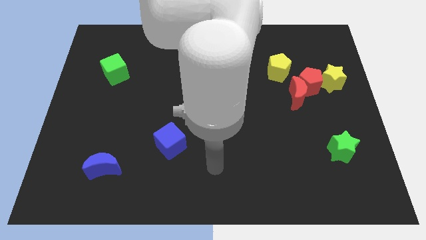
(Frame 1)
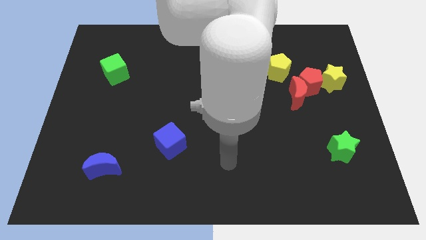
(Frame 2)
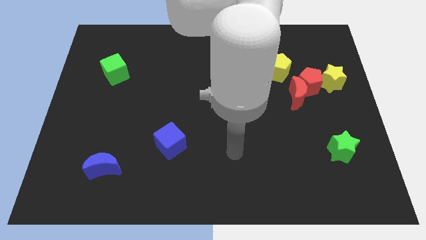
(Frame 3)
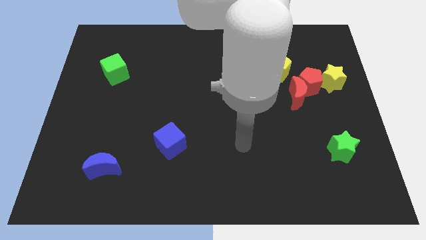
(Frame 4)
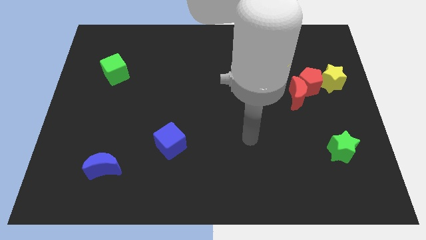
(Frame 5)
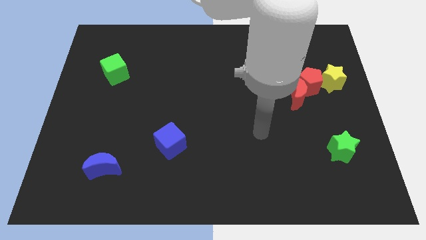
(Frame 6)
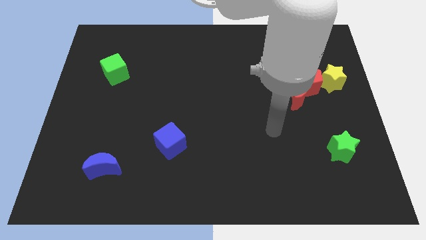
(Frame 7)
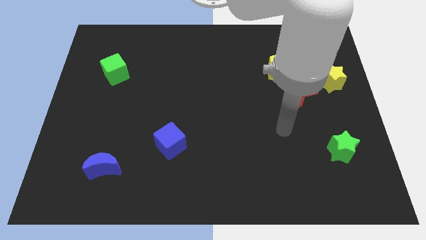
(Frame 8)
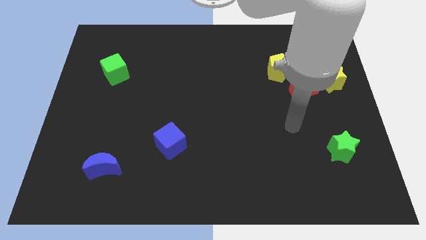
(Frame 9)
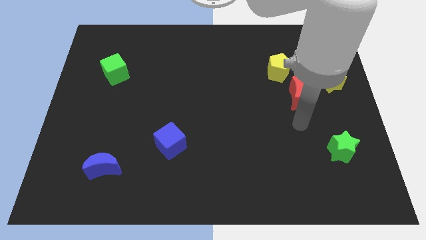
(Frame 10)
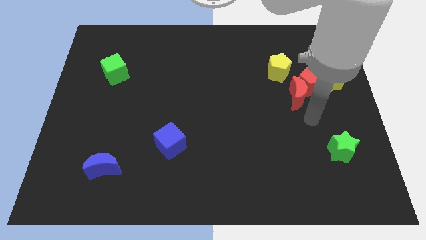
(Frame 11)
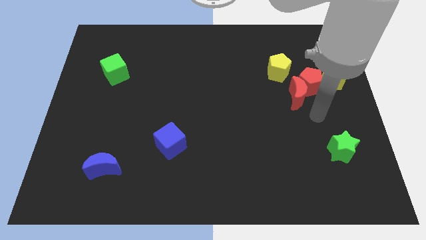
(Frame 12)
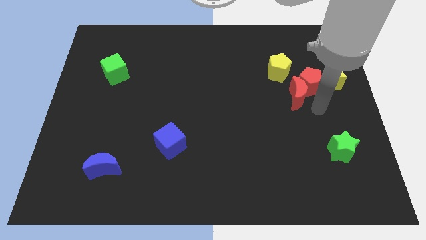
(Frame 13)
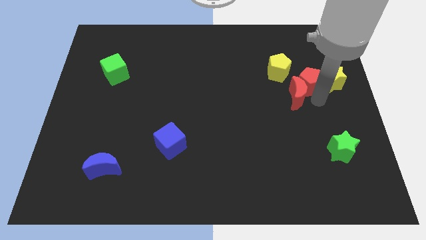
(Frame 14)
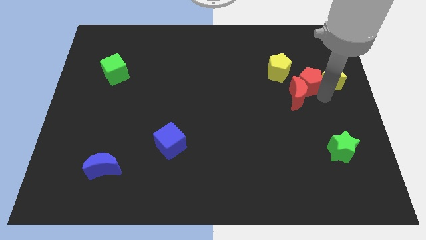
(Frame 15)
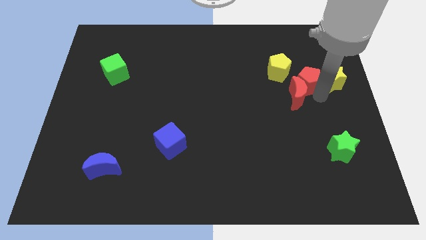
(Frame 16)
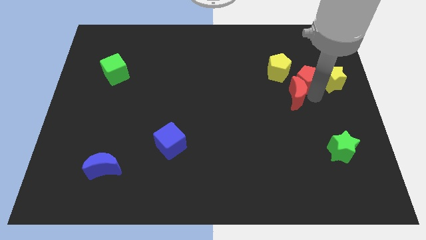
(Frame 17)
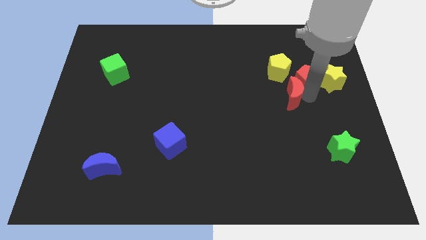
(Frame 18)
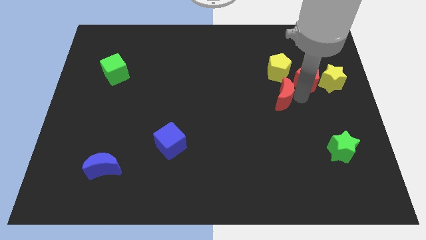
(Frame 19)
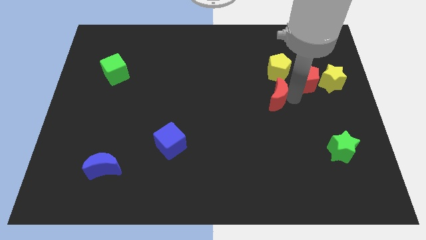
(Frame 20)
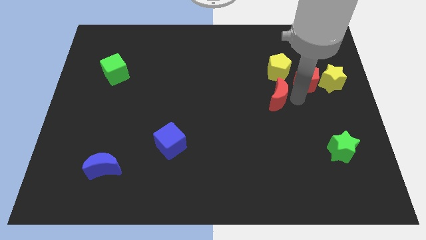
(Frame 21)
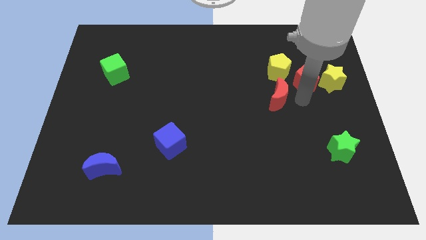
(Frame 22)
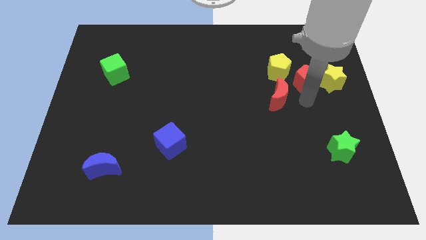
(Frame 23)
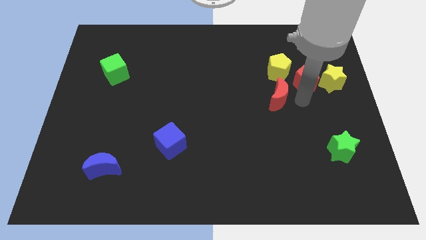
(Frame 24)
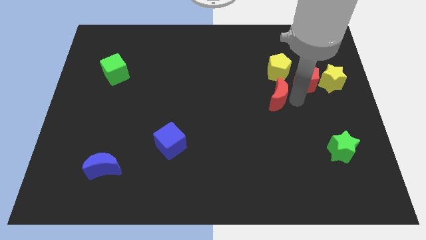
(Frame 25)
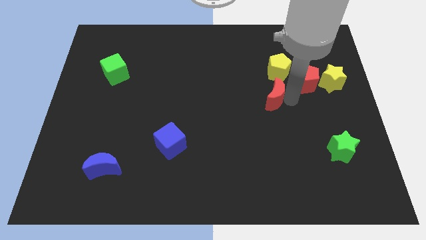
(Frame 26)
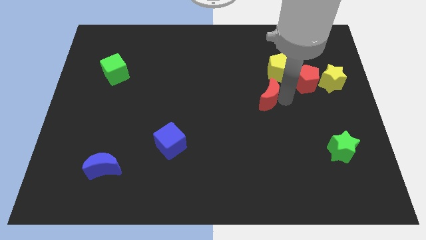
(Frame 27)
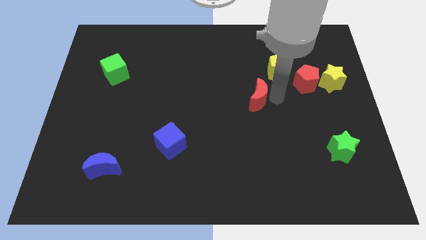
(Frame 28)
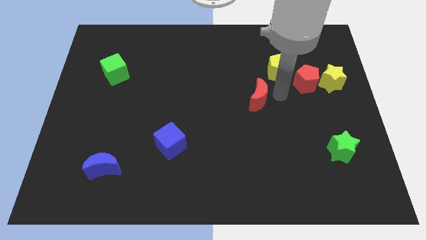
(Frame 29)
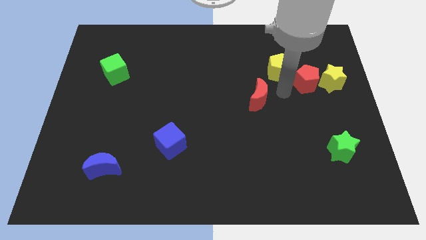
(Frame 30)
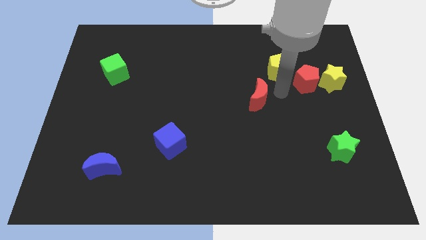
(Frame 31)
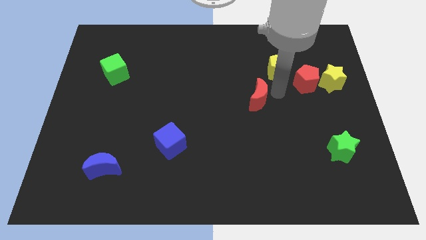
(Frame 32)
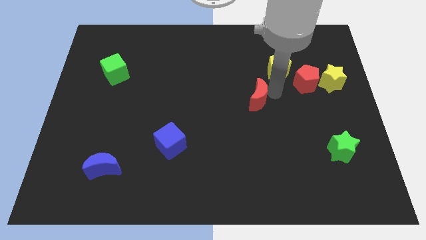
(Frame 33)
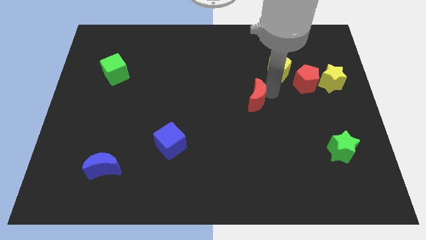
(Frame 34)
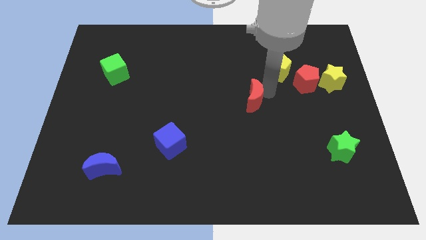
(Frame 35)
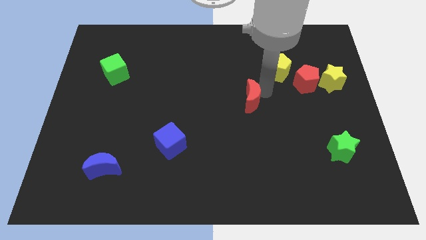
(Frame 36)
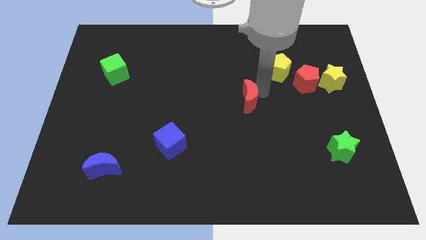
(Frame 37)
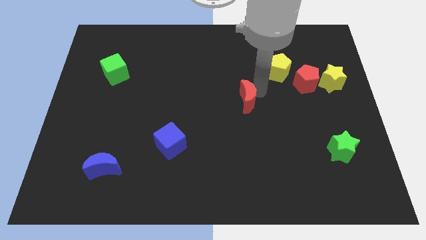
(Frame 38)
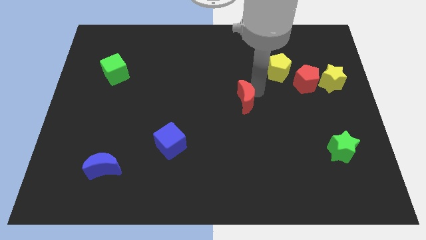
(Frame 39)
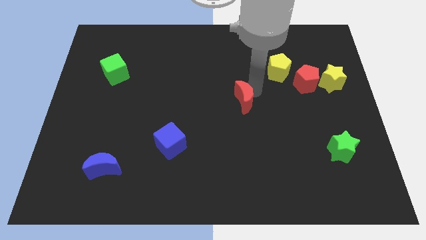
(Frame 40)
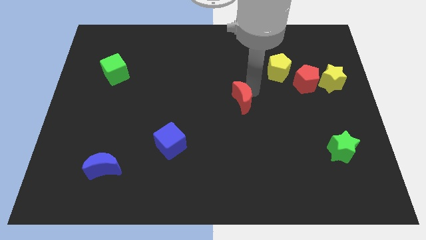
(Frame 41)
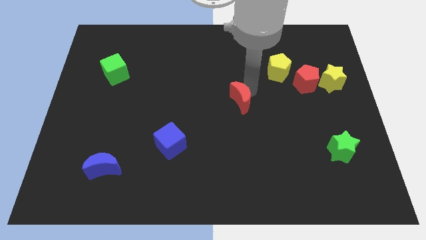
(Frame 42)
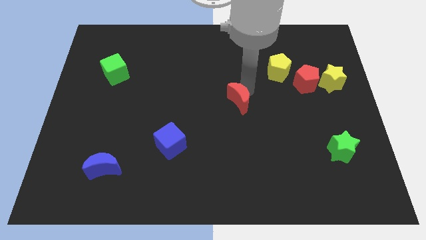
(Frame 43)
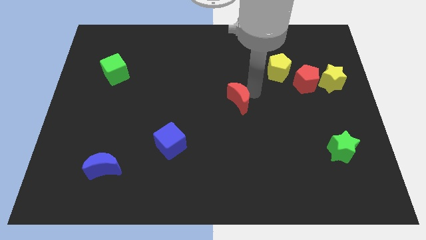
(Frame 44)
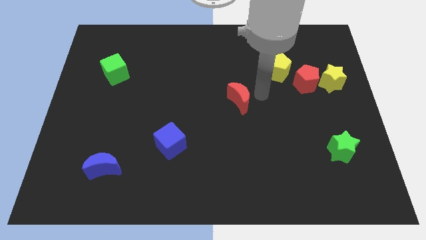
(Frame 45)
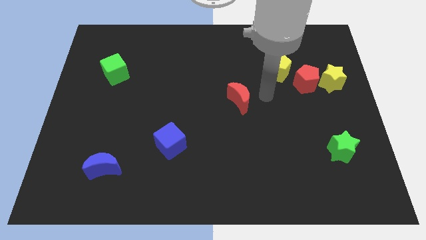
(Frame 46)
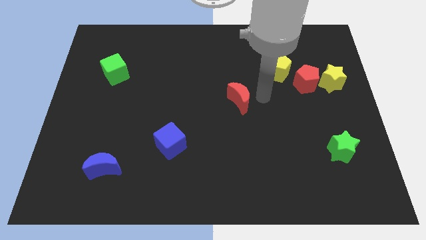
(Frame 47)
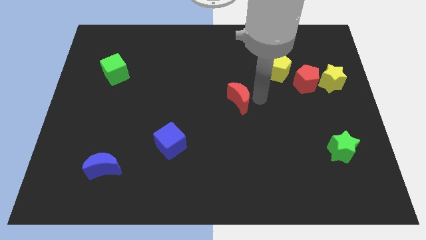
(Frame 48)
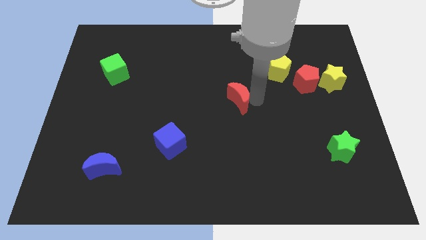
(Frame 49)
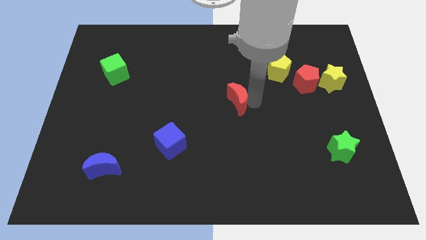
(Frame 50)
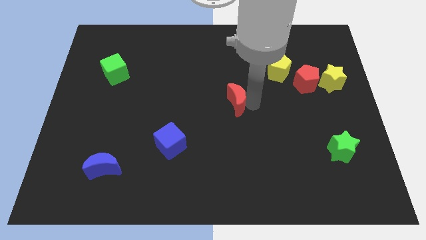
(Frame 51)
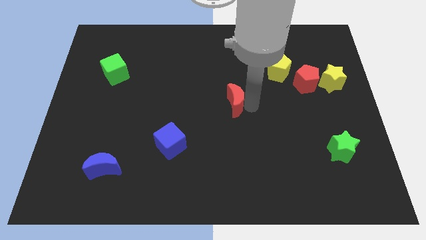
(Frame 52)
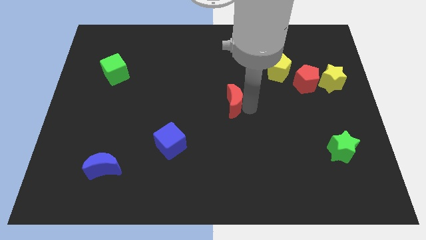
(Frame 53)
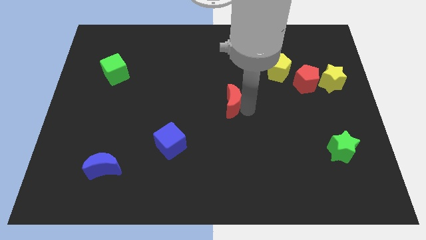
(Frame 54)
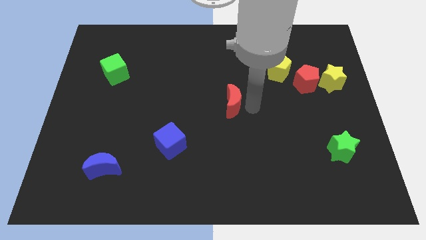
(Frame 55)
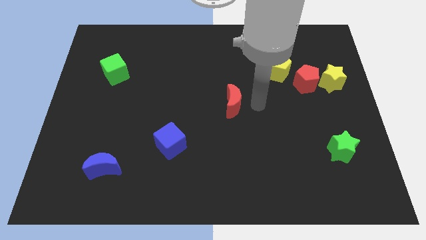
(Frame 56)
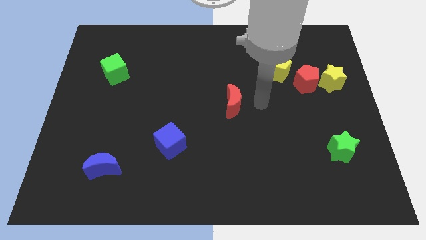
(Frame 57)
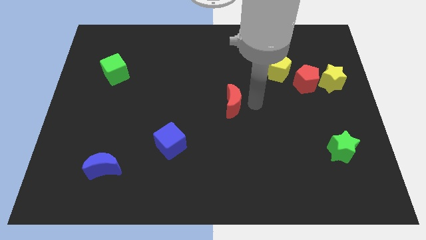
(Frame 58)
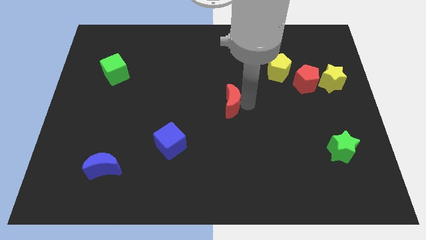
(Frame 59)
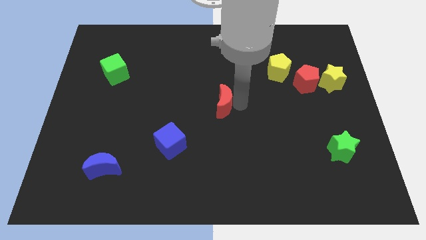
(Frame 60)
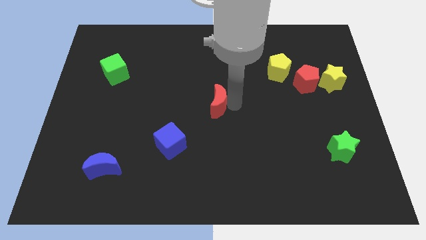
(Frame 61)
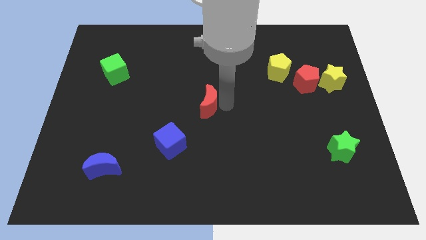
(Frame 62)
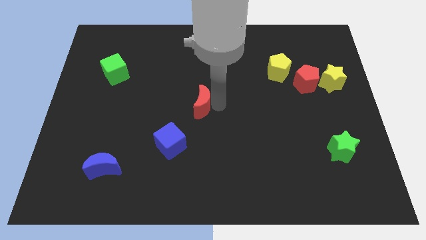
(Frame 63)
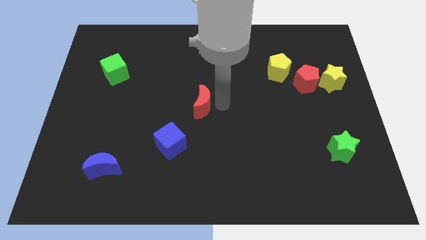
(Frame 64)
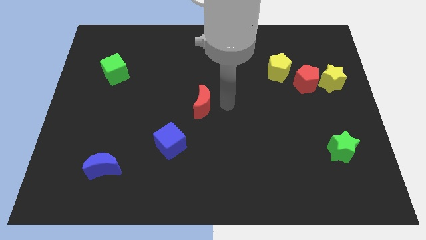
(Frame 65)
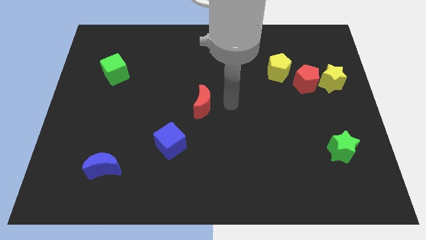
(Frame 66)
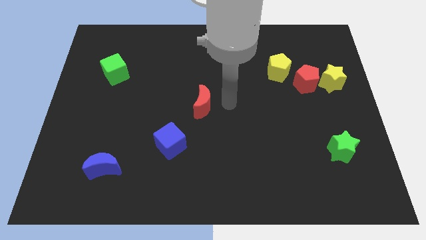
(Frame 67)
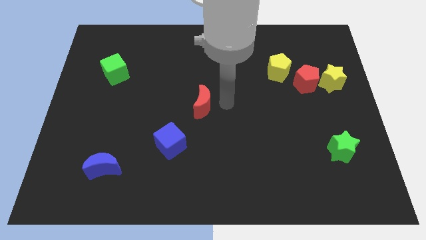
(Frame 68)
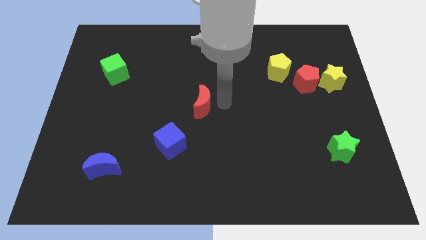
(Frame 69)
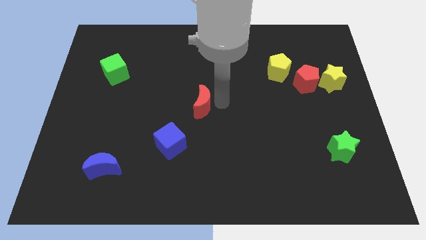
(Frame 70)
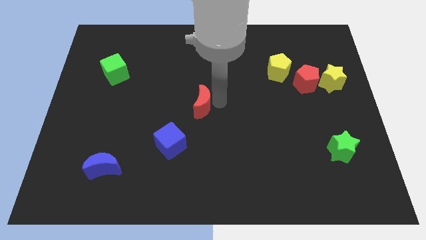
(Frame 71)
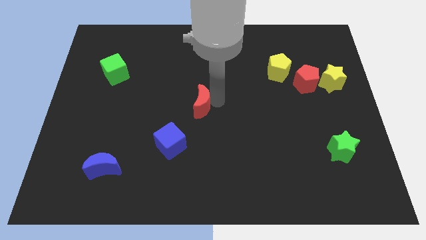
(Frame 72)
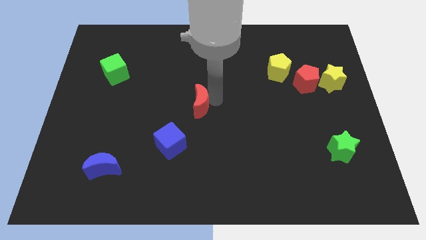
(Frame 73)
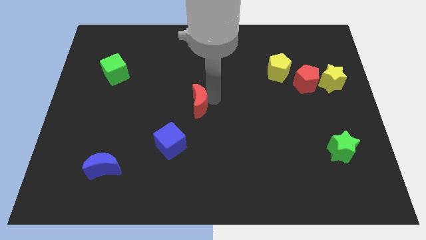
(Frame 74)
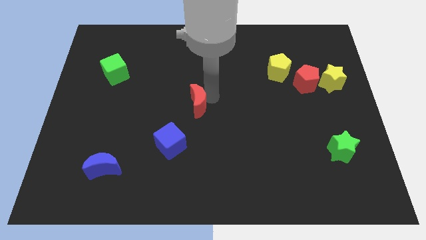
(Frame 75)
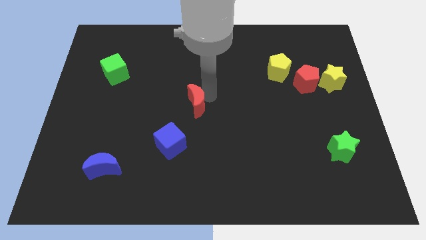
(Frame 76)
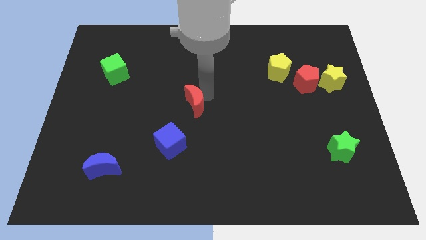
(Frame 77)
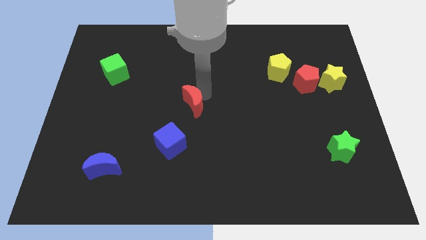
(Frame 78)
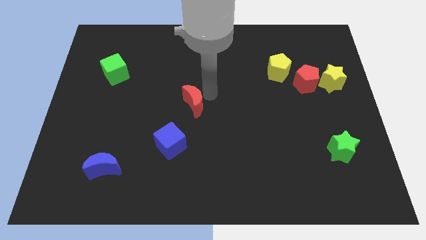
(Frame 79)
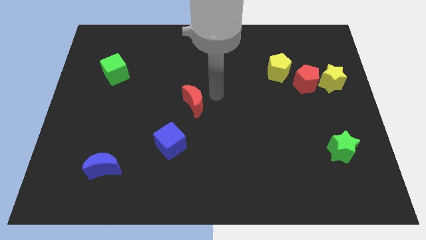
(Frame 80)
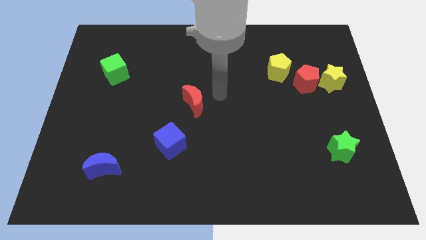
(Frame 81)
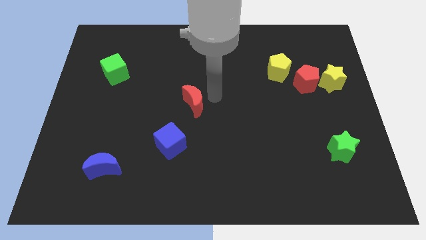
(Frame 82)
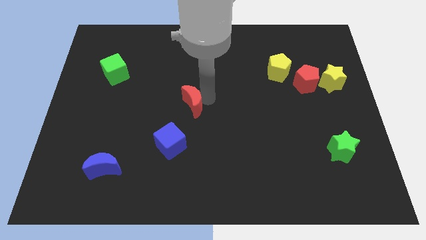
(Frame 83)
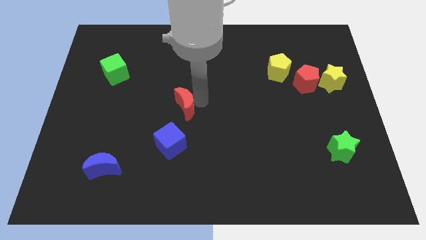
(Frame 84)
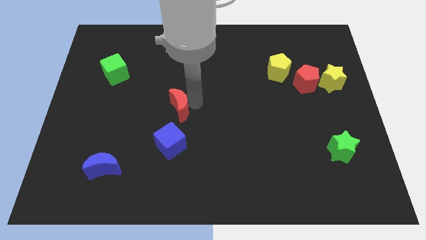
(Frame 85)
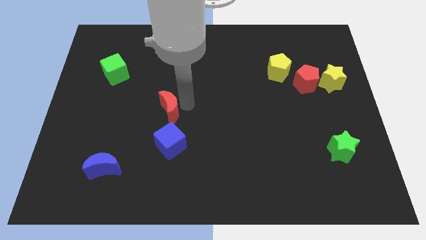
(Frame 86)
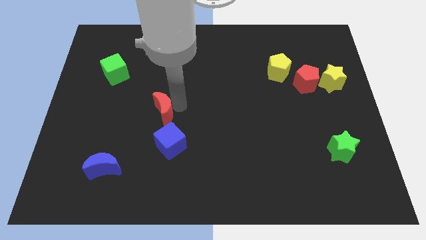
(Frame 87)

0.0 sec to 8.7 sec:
push the red moon diagonally up and to the left of the blue cube
